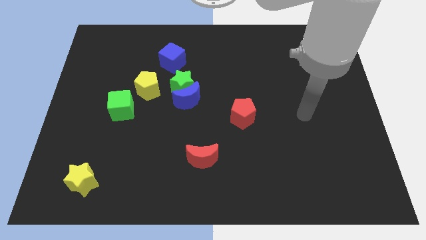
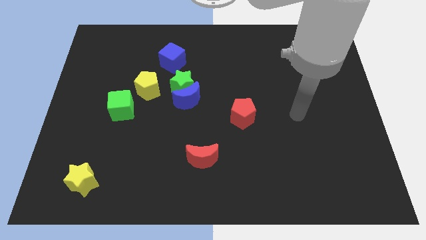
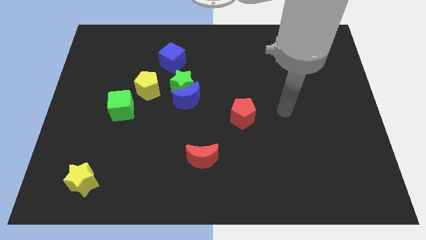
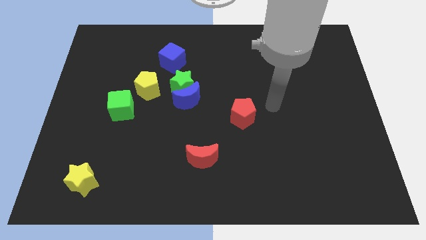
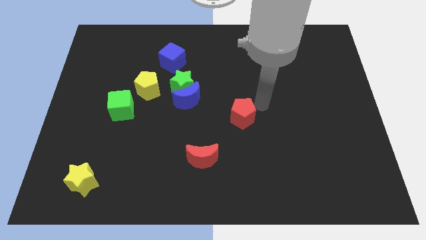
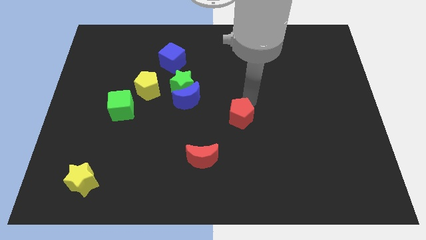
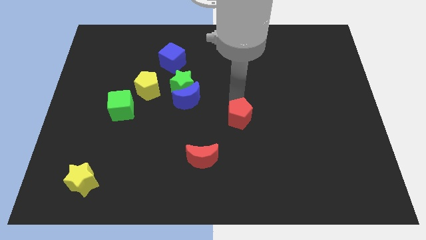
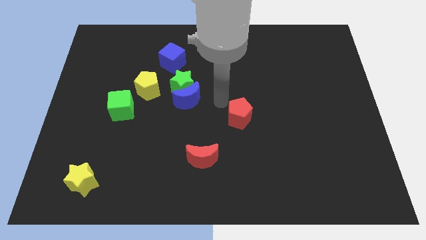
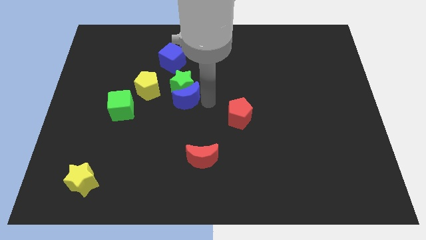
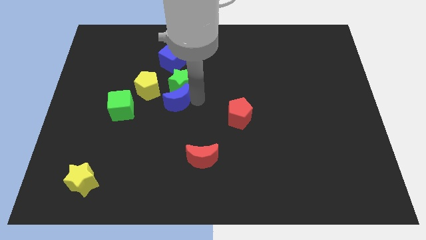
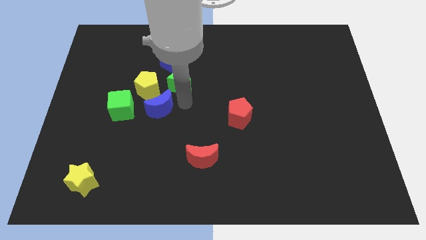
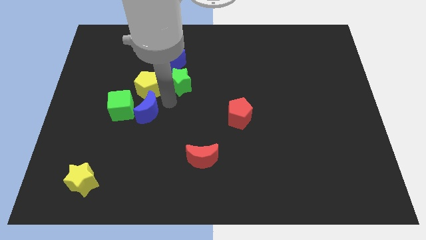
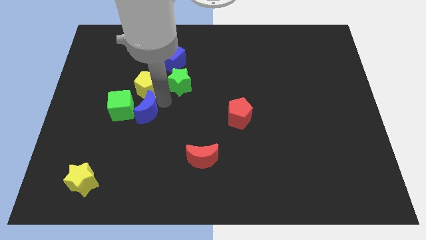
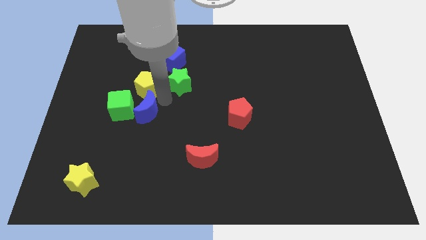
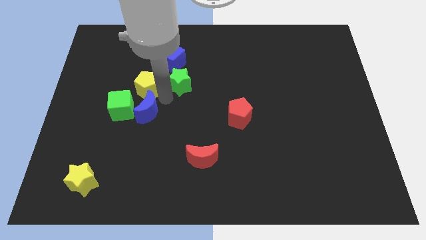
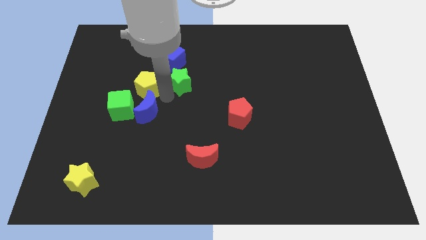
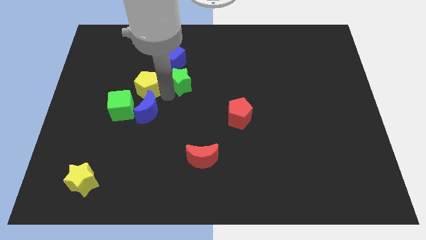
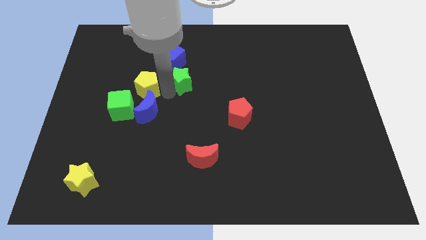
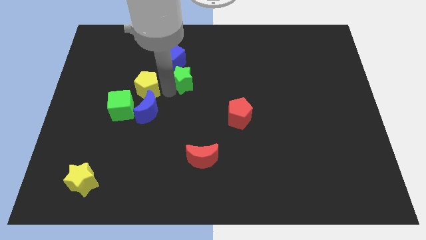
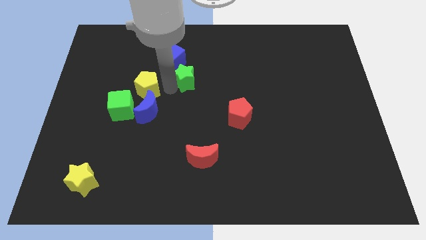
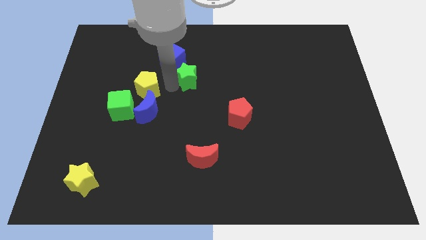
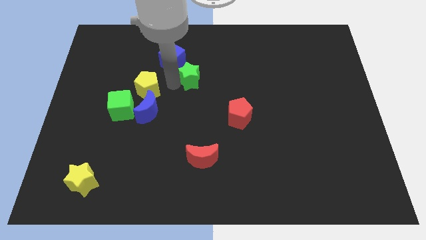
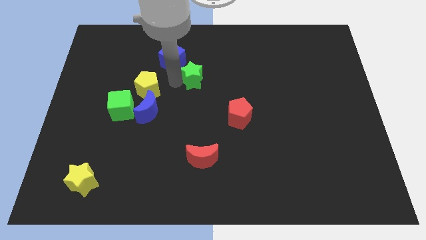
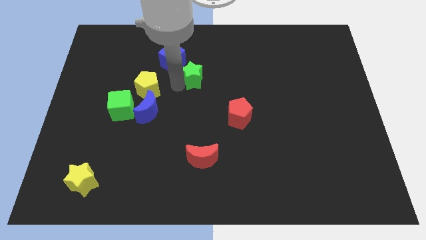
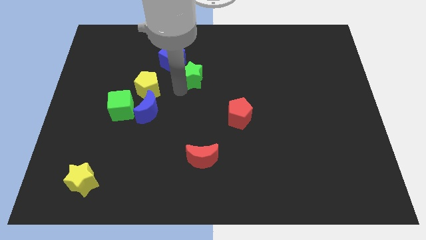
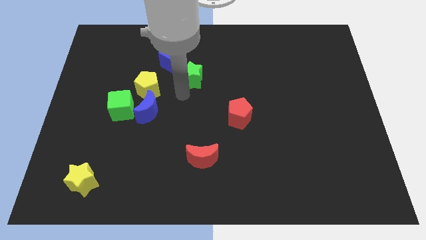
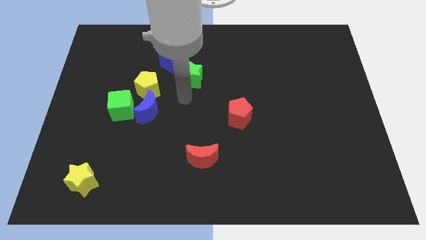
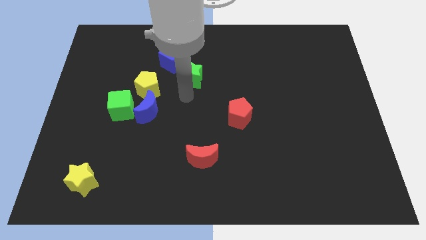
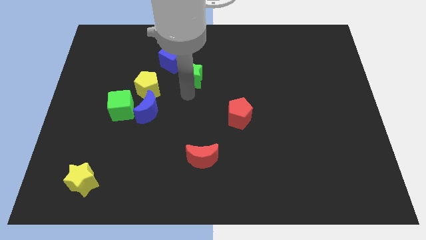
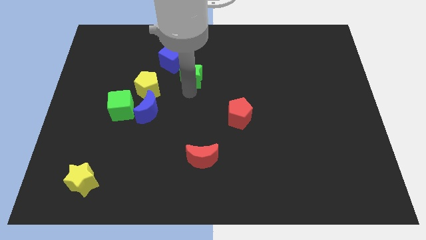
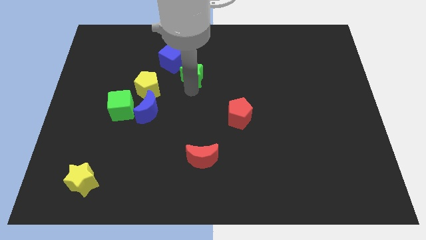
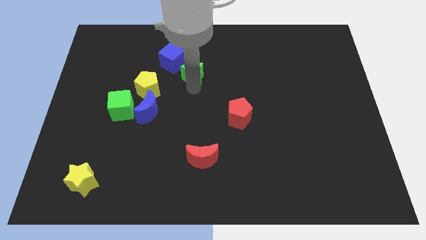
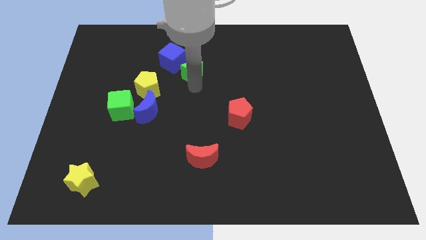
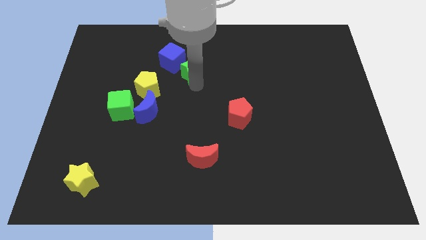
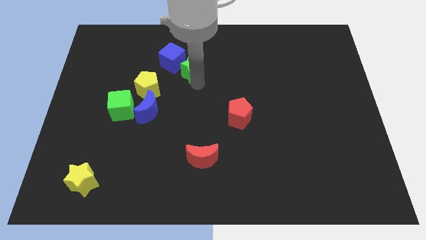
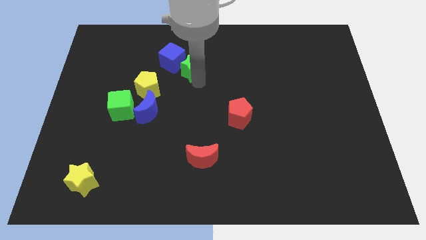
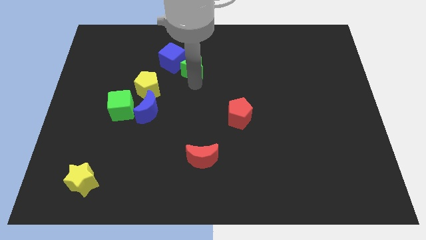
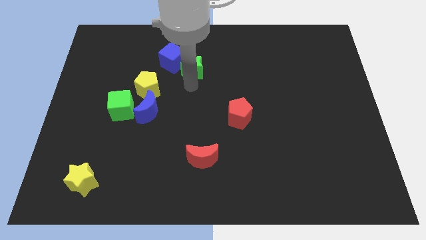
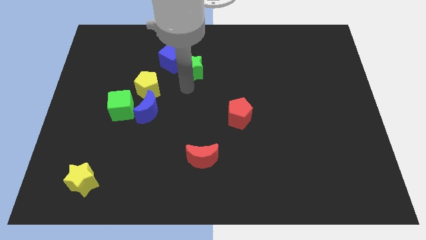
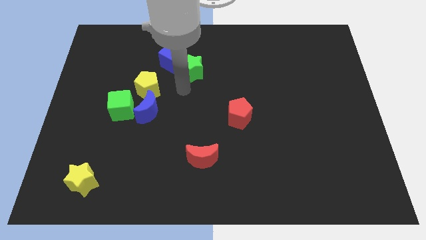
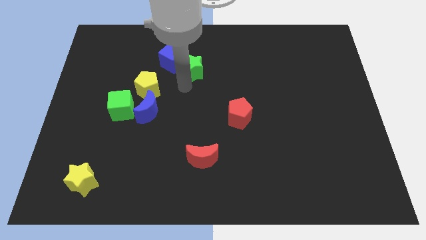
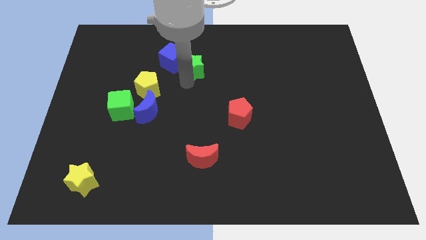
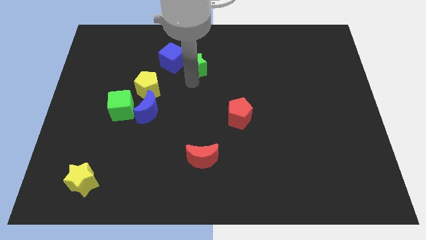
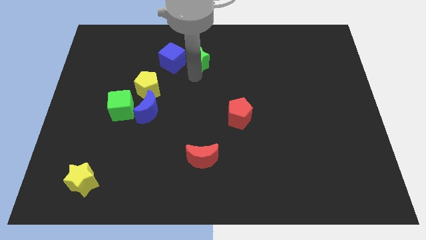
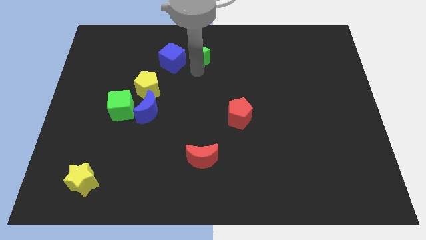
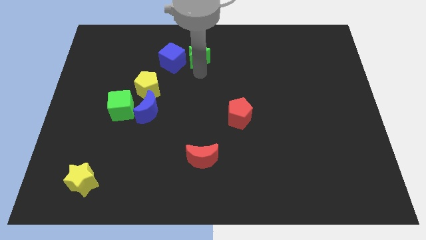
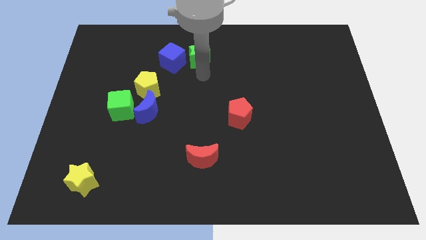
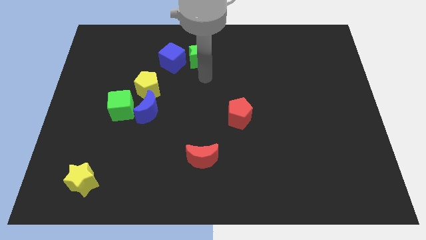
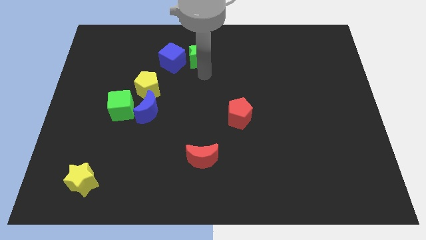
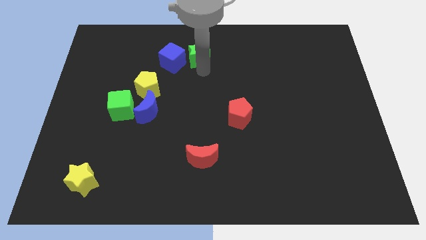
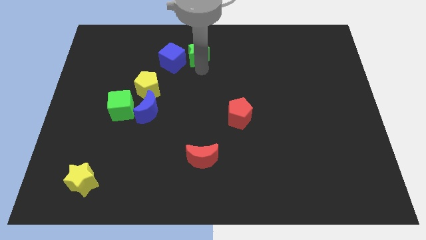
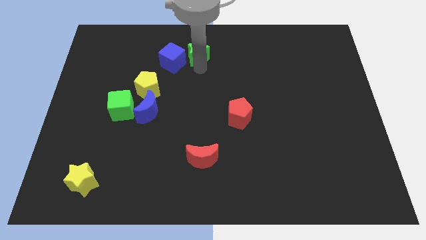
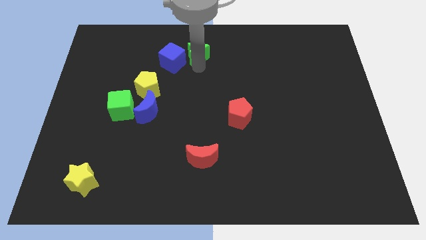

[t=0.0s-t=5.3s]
put the green star to the towards your base
